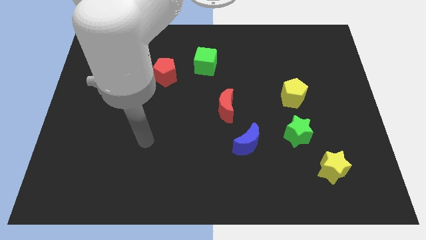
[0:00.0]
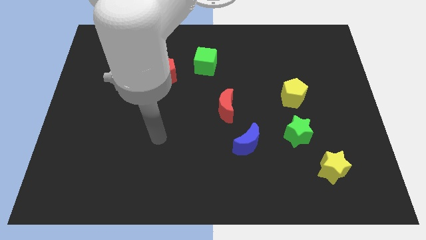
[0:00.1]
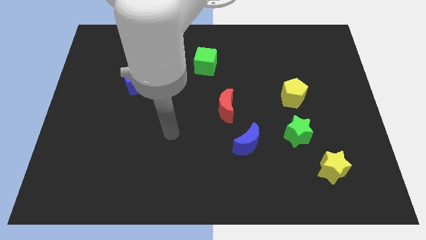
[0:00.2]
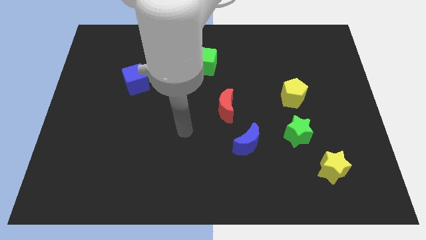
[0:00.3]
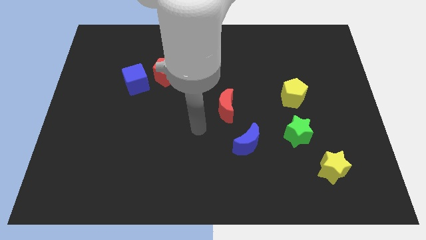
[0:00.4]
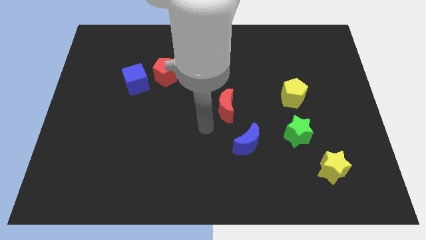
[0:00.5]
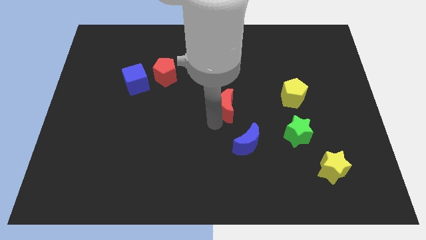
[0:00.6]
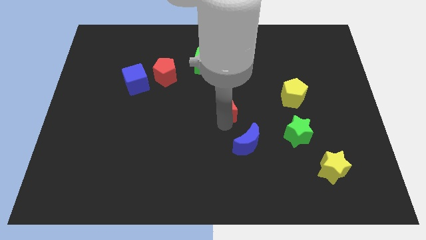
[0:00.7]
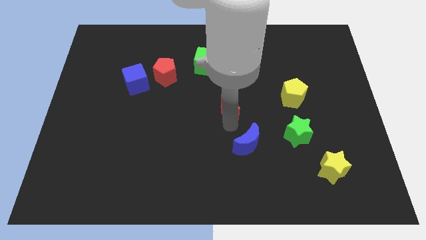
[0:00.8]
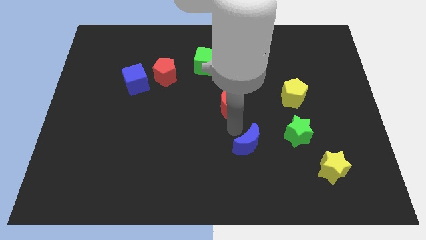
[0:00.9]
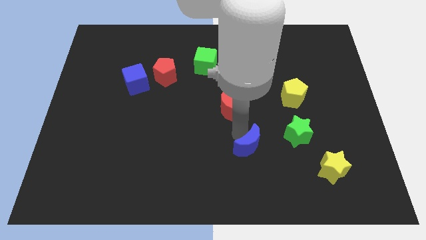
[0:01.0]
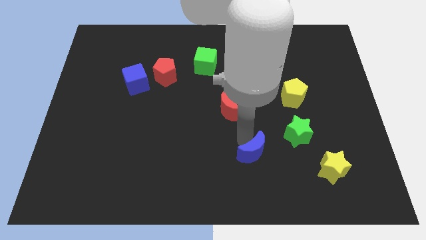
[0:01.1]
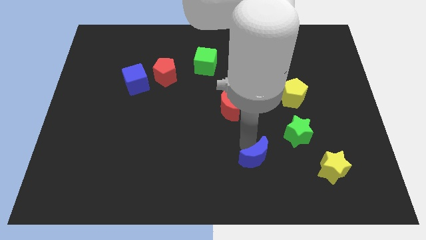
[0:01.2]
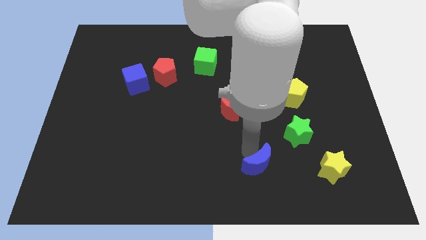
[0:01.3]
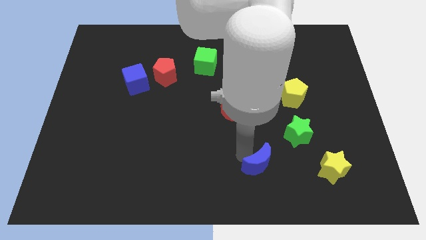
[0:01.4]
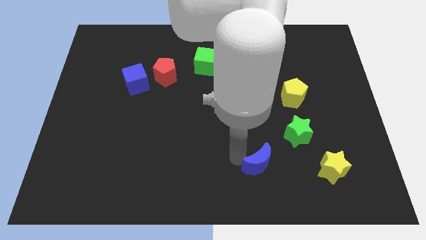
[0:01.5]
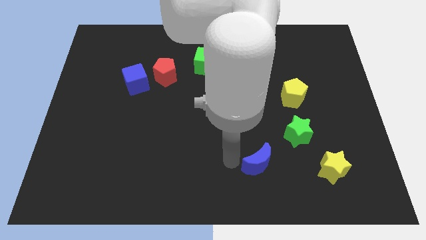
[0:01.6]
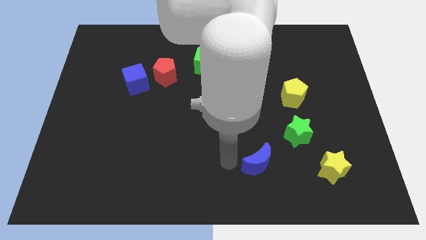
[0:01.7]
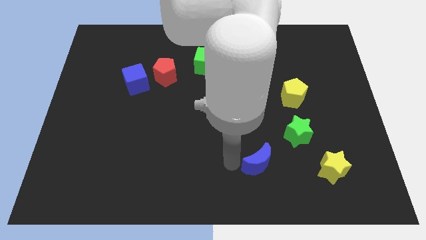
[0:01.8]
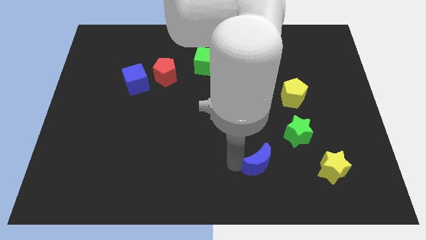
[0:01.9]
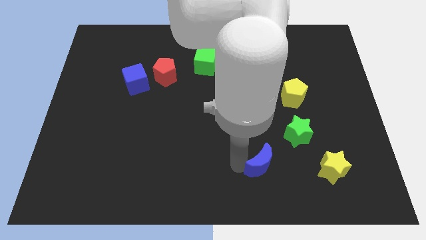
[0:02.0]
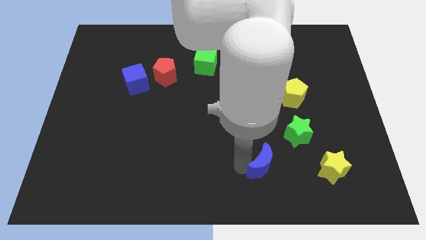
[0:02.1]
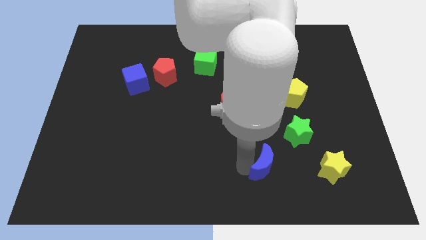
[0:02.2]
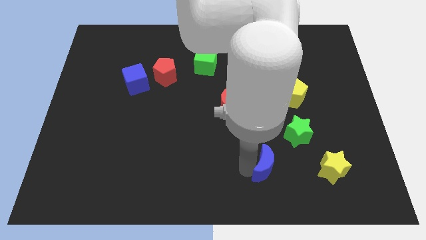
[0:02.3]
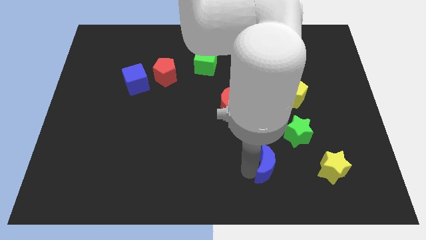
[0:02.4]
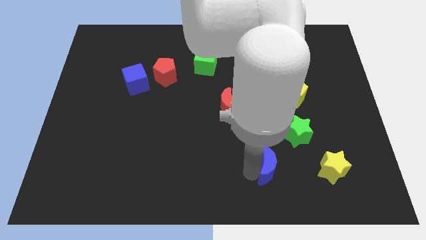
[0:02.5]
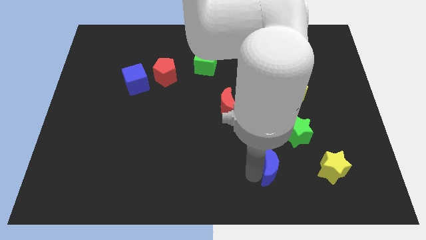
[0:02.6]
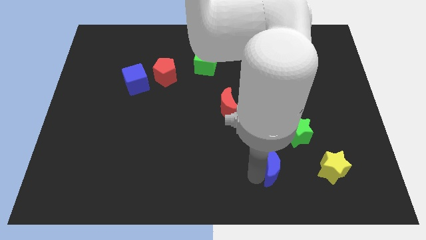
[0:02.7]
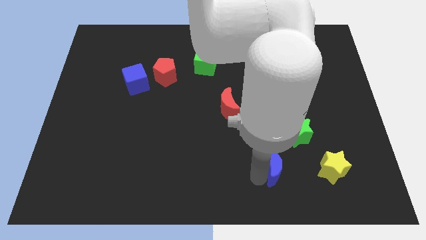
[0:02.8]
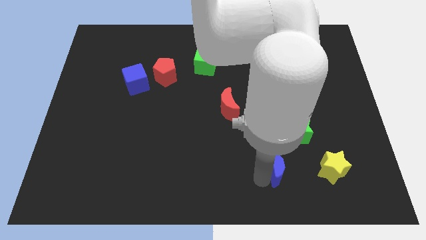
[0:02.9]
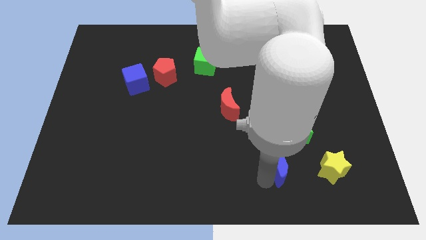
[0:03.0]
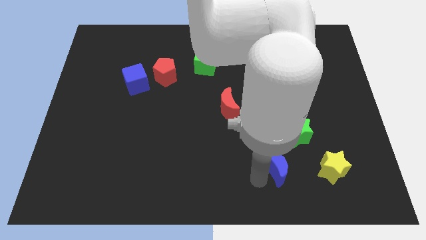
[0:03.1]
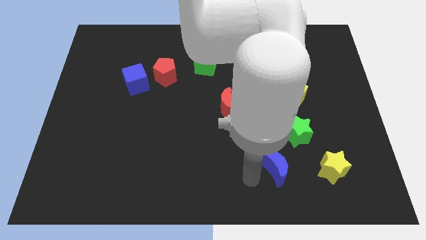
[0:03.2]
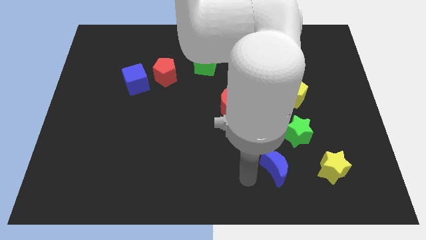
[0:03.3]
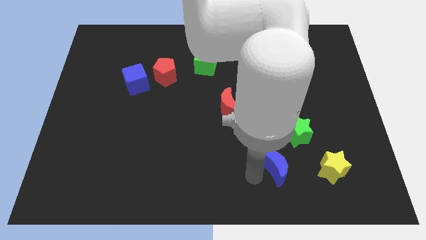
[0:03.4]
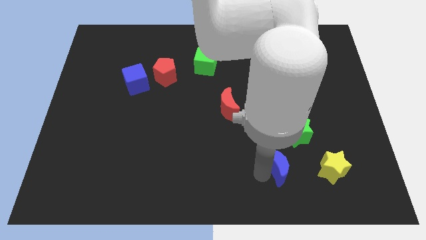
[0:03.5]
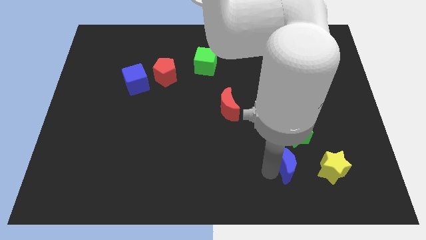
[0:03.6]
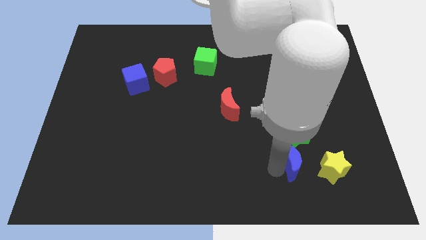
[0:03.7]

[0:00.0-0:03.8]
slide the blue moon to the right a little bit

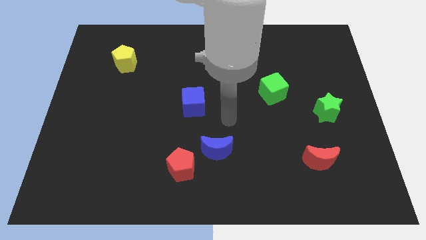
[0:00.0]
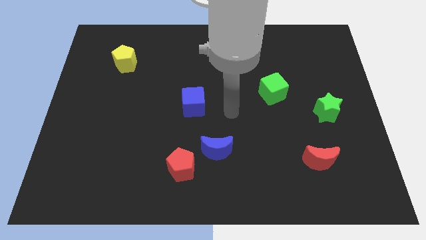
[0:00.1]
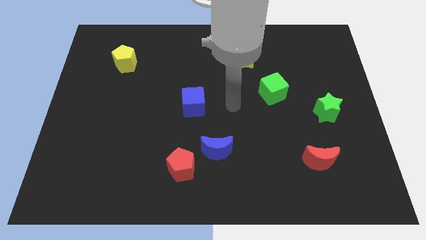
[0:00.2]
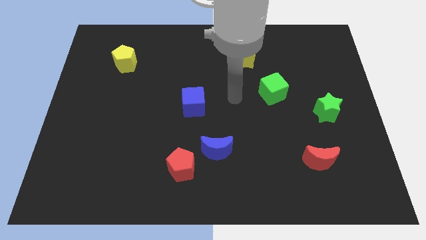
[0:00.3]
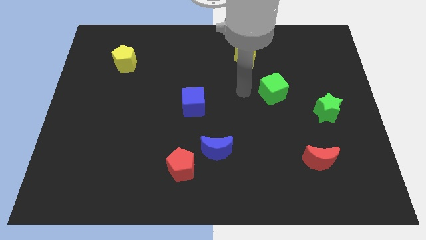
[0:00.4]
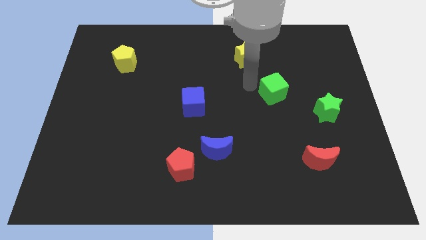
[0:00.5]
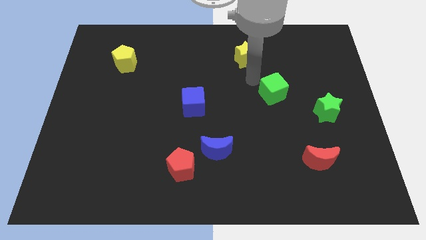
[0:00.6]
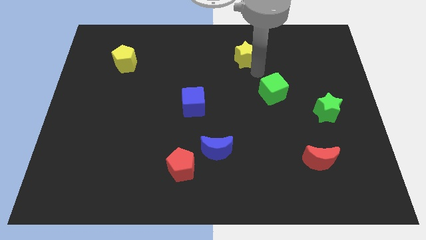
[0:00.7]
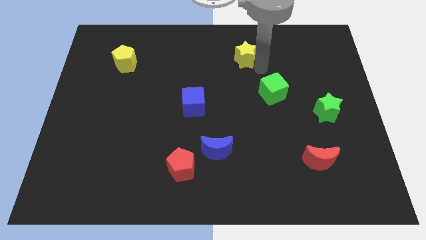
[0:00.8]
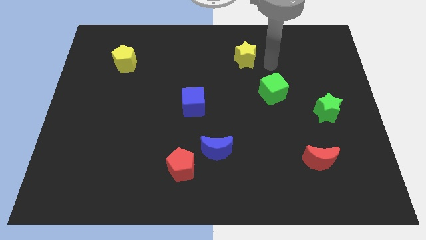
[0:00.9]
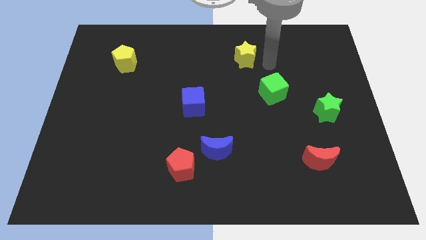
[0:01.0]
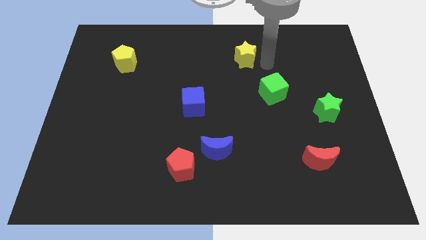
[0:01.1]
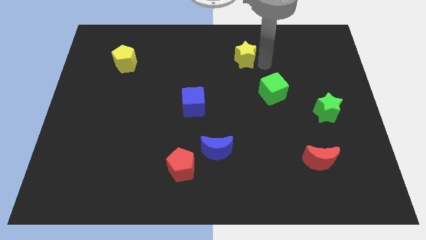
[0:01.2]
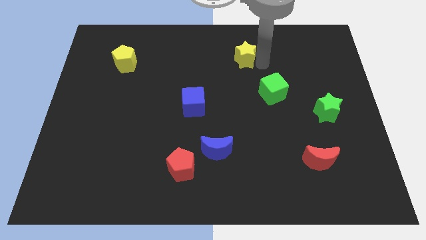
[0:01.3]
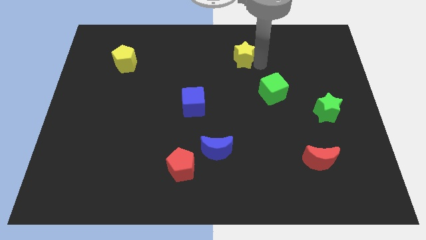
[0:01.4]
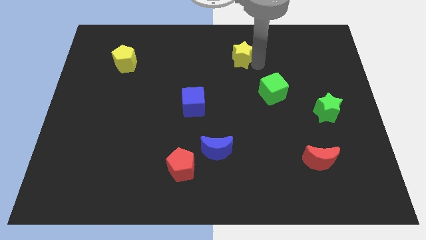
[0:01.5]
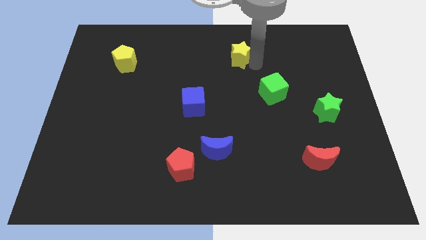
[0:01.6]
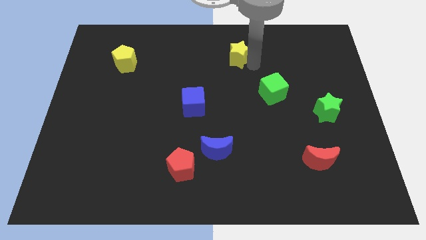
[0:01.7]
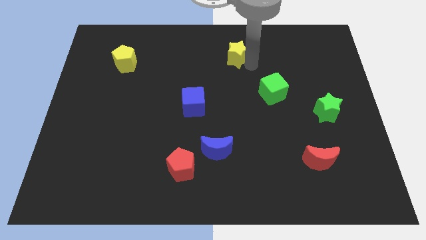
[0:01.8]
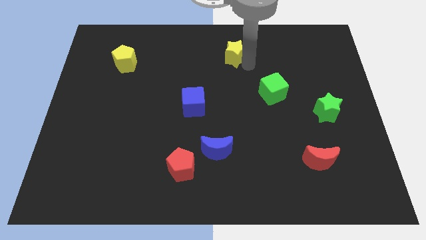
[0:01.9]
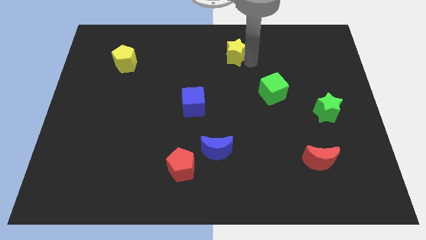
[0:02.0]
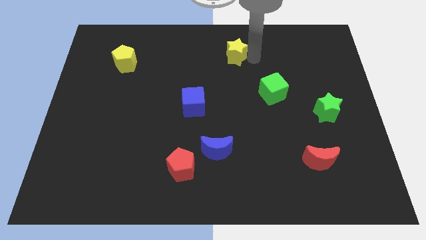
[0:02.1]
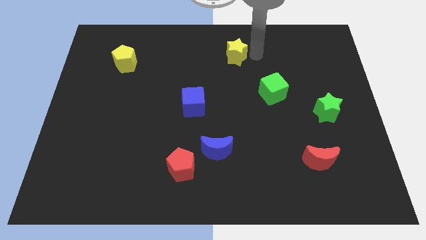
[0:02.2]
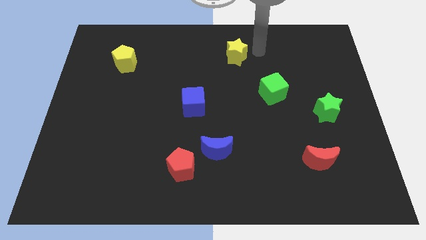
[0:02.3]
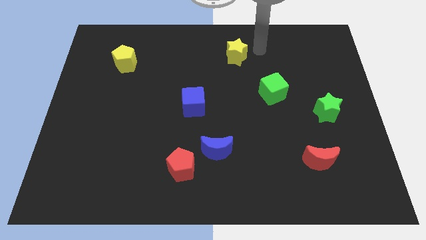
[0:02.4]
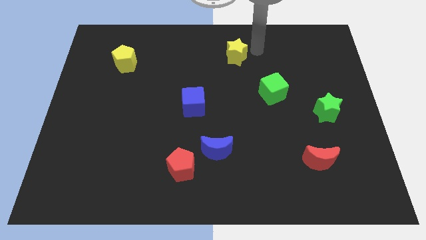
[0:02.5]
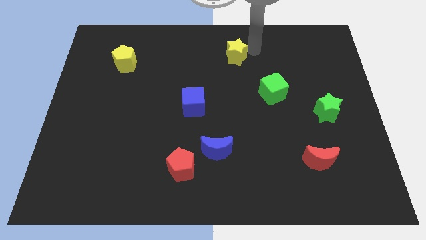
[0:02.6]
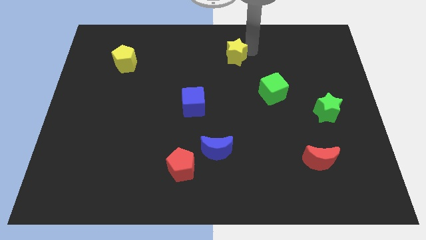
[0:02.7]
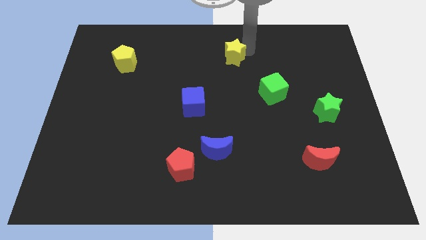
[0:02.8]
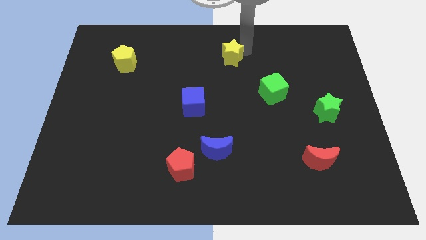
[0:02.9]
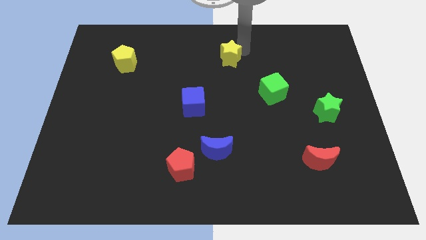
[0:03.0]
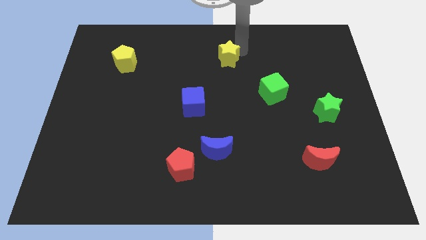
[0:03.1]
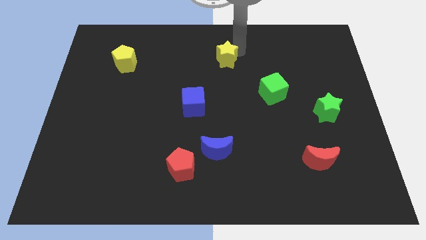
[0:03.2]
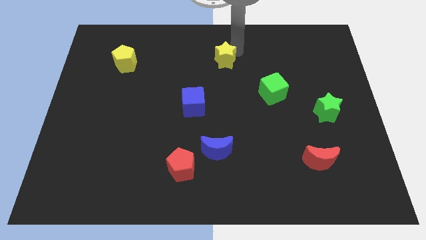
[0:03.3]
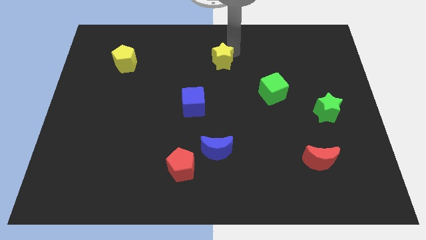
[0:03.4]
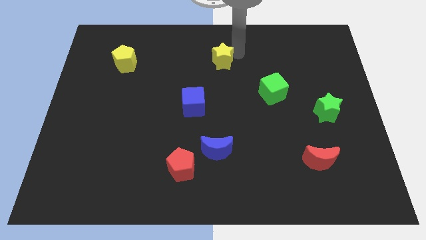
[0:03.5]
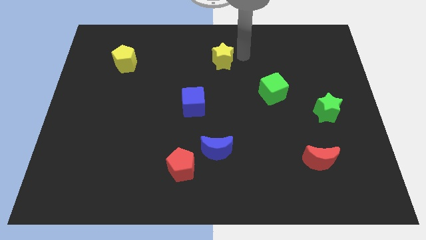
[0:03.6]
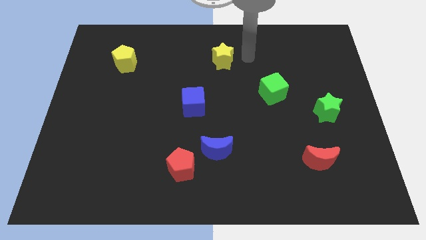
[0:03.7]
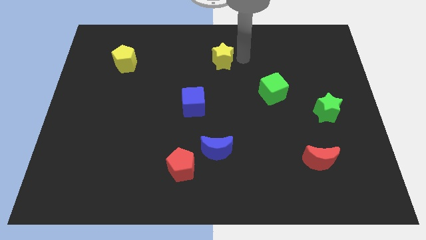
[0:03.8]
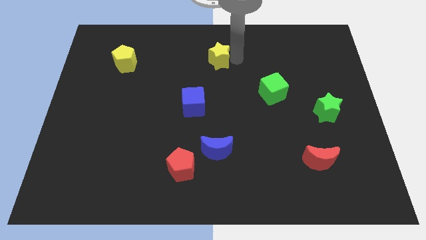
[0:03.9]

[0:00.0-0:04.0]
slightly move the yellow star to the left

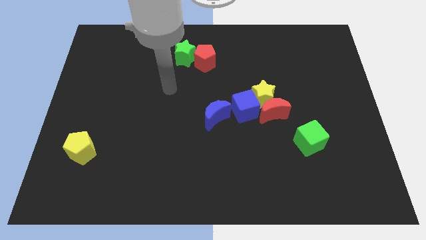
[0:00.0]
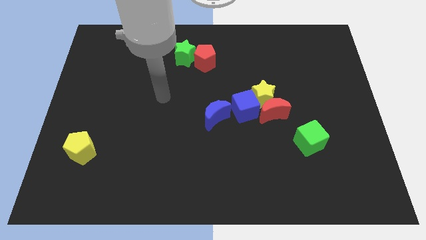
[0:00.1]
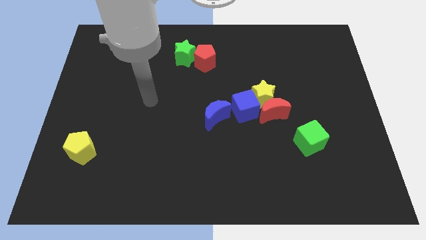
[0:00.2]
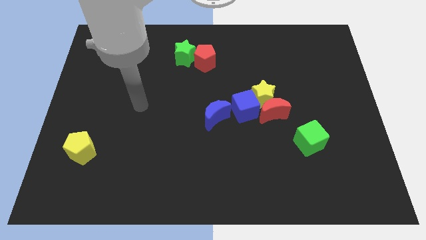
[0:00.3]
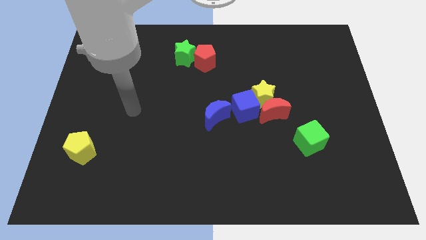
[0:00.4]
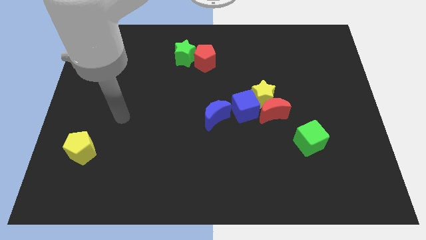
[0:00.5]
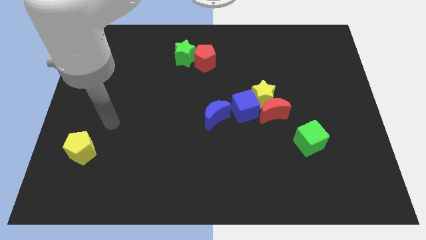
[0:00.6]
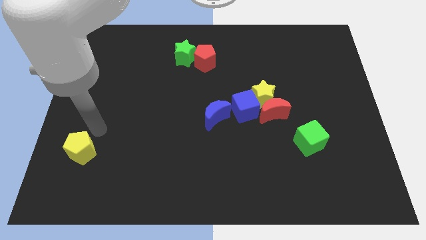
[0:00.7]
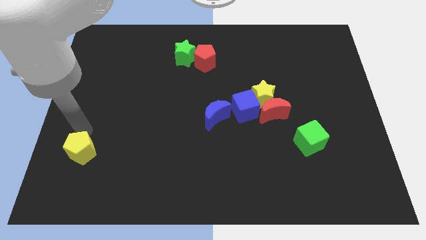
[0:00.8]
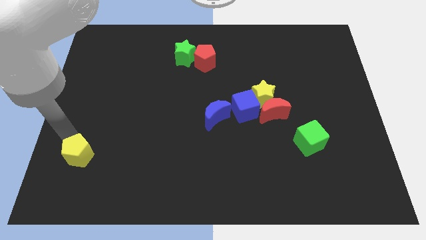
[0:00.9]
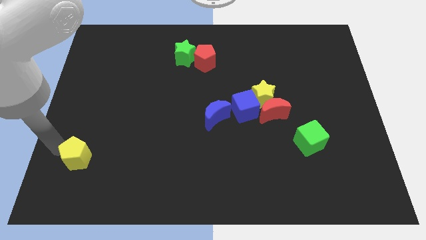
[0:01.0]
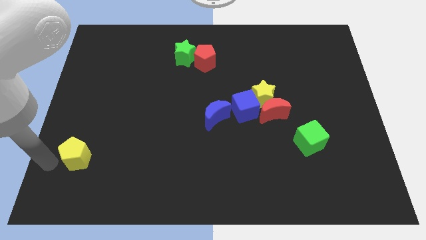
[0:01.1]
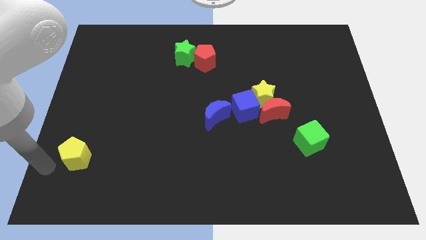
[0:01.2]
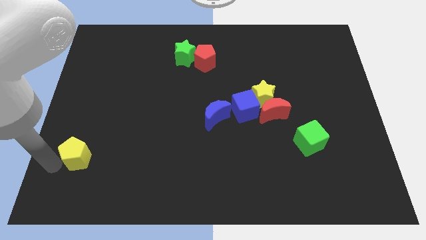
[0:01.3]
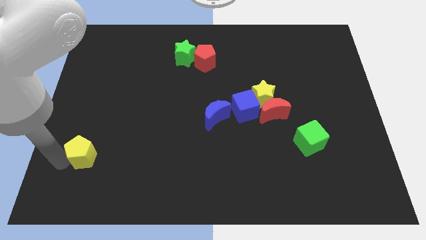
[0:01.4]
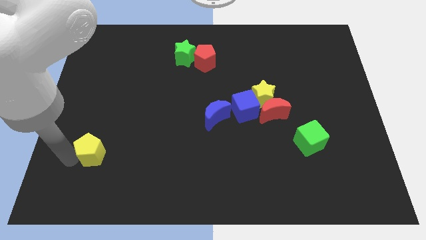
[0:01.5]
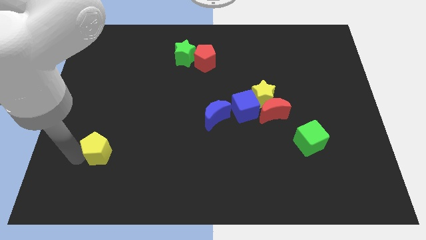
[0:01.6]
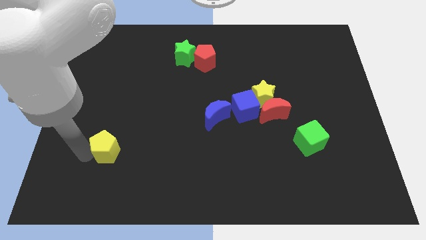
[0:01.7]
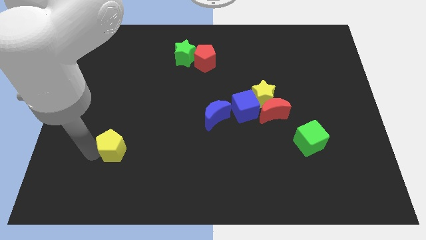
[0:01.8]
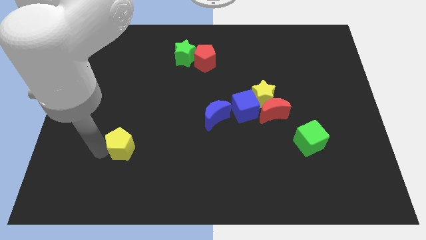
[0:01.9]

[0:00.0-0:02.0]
slightly slide the yellow pentagon to the right
